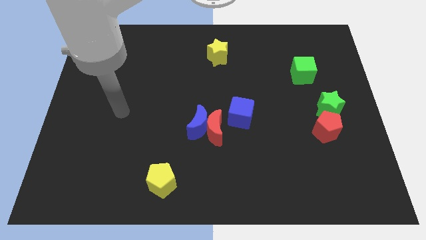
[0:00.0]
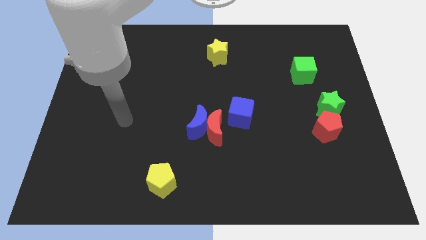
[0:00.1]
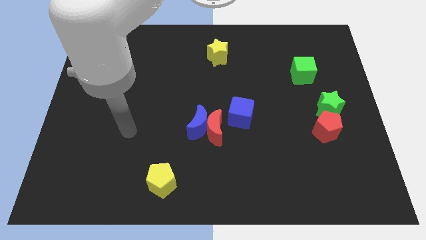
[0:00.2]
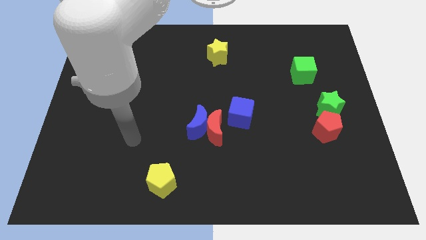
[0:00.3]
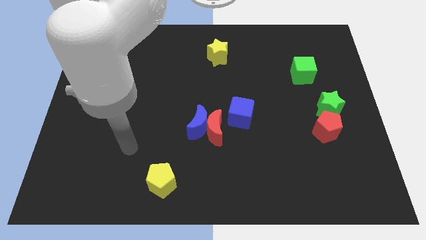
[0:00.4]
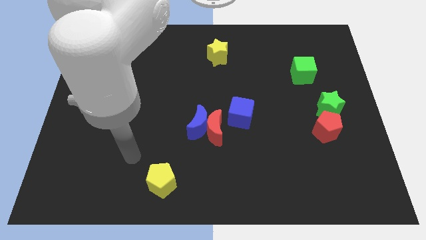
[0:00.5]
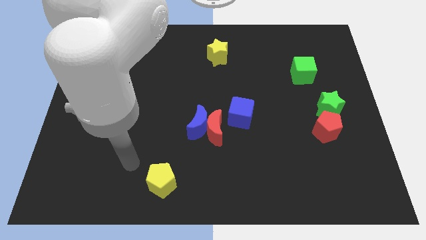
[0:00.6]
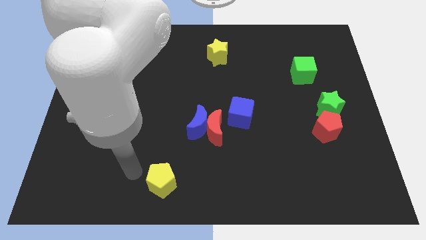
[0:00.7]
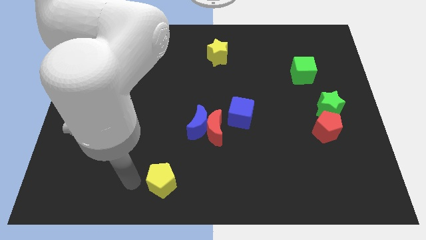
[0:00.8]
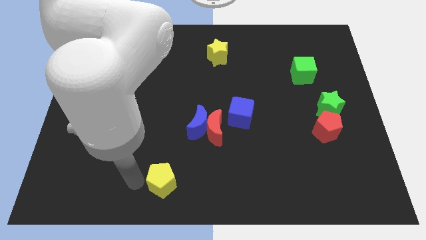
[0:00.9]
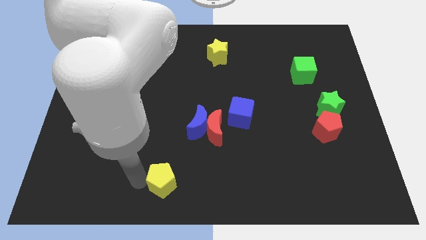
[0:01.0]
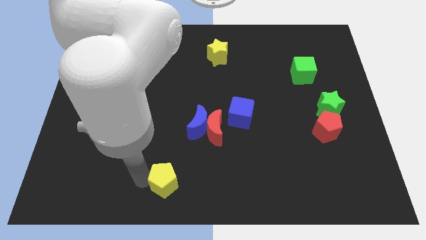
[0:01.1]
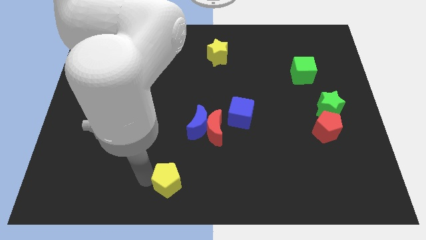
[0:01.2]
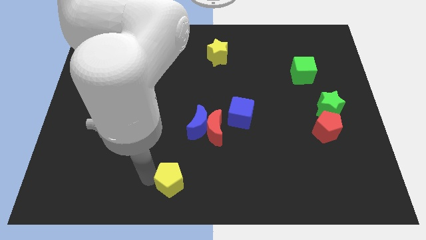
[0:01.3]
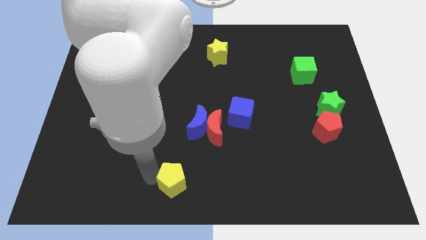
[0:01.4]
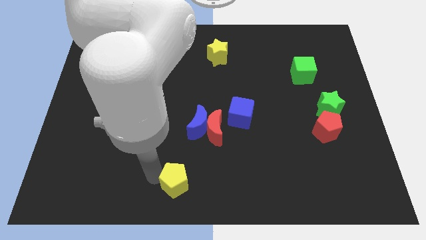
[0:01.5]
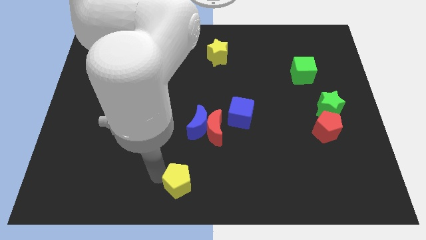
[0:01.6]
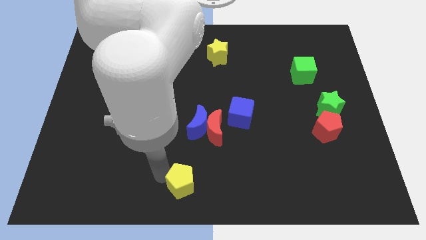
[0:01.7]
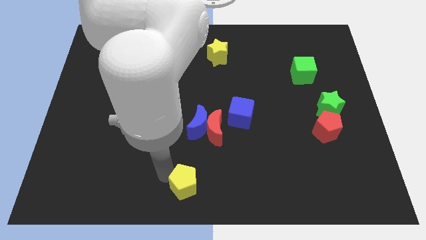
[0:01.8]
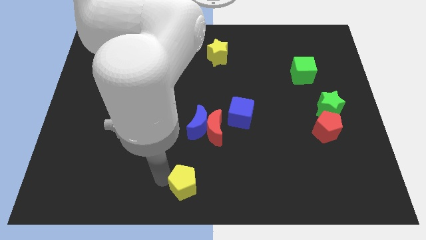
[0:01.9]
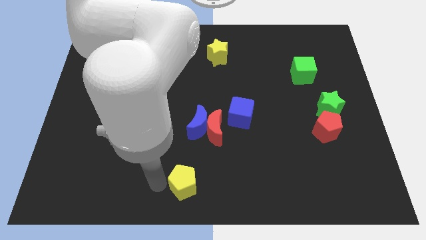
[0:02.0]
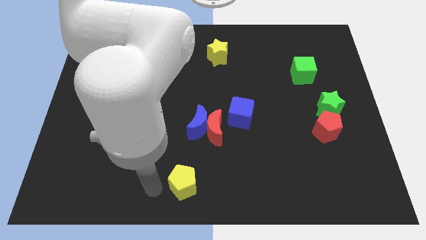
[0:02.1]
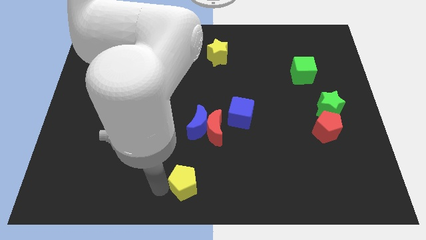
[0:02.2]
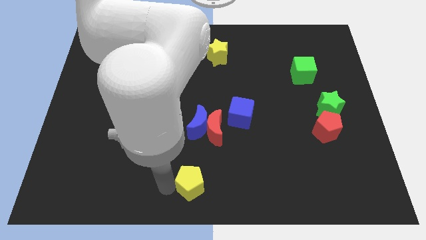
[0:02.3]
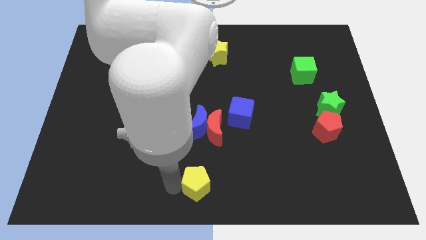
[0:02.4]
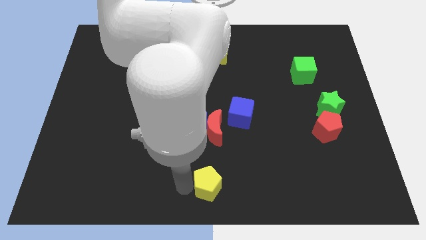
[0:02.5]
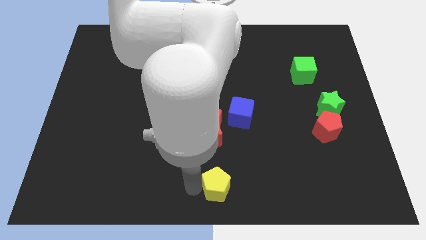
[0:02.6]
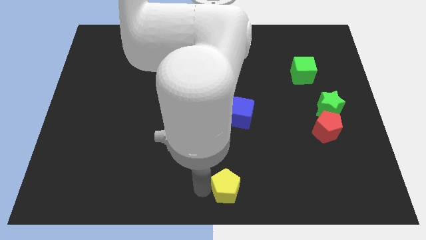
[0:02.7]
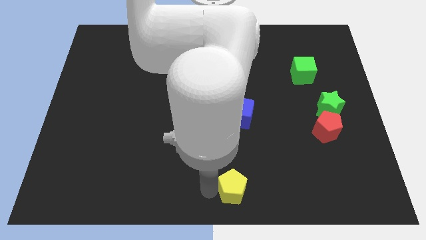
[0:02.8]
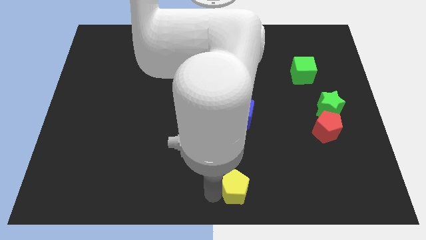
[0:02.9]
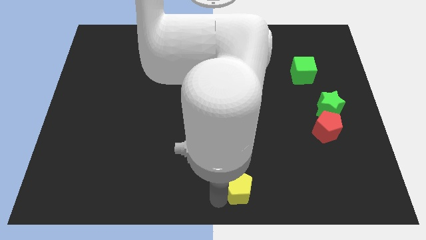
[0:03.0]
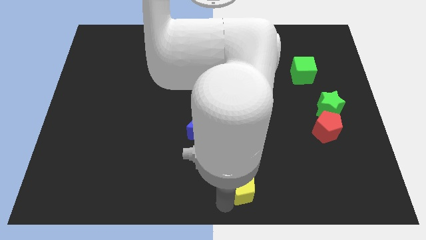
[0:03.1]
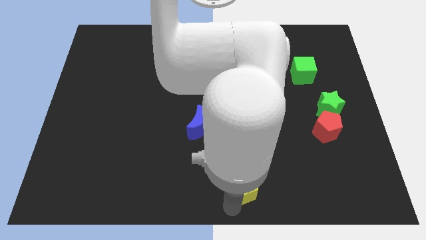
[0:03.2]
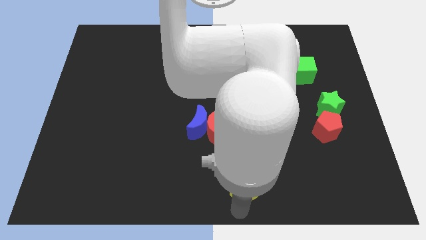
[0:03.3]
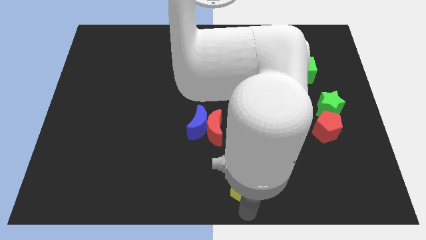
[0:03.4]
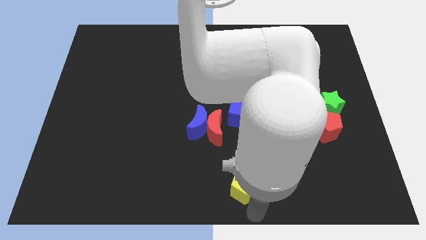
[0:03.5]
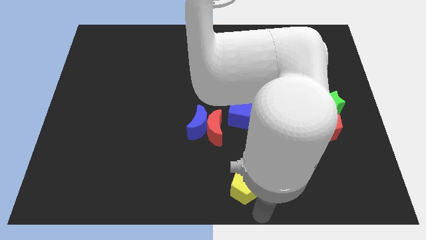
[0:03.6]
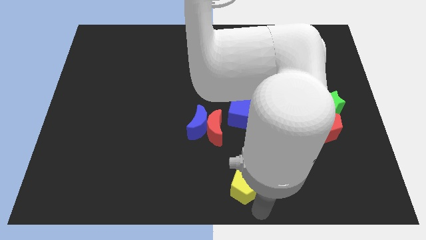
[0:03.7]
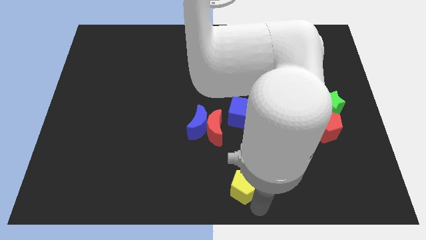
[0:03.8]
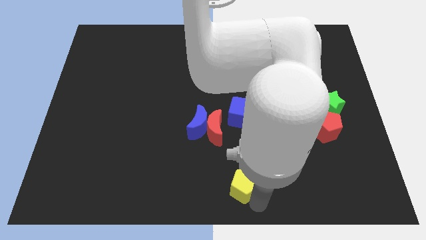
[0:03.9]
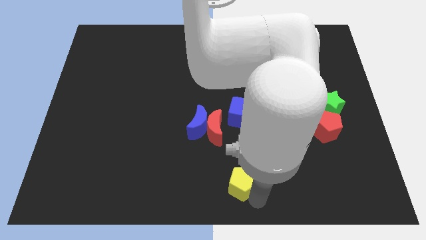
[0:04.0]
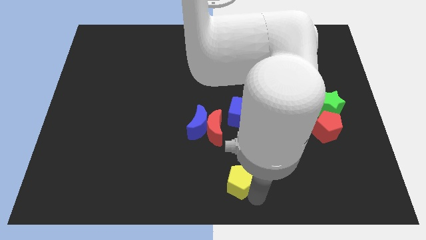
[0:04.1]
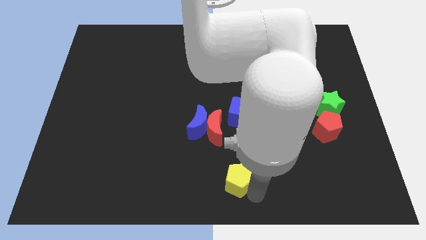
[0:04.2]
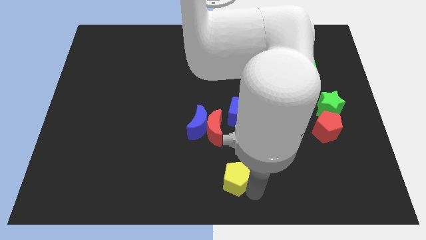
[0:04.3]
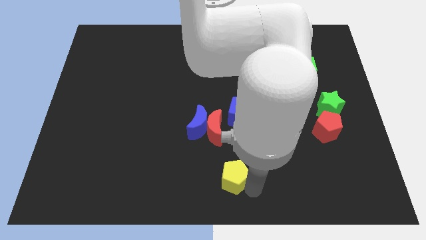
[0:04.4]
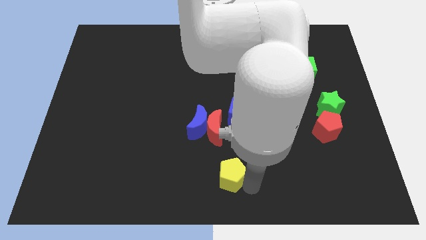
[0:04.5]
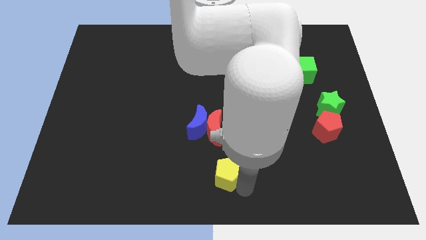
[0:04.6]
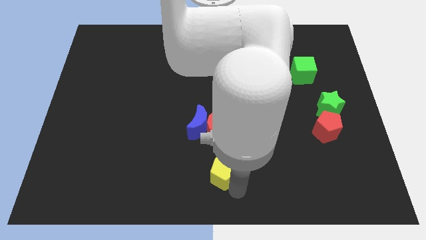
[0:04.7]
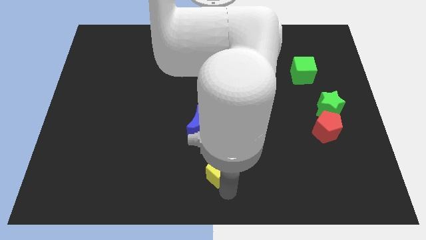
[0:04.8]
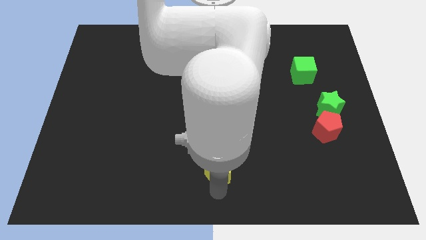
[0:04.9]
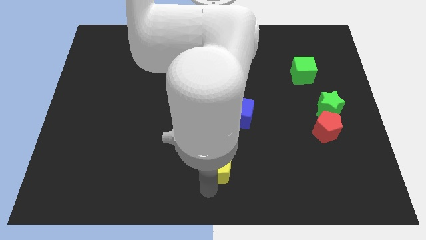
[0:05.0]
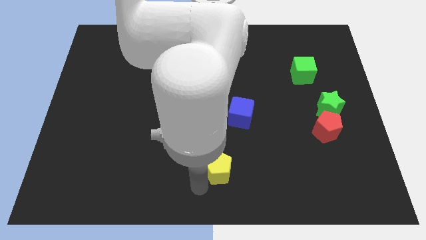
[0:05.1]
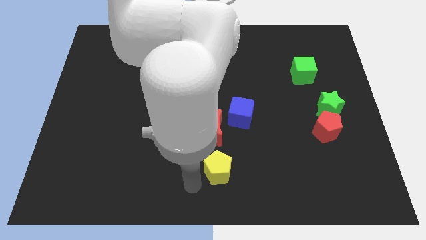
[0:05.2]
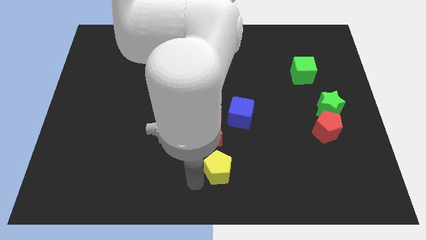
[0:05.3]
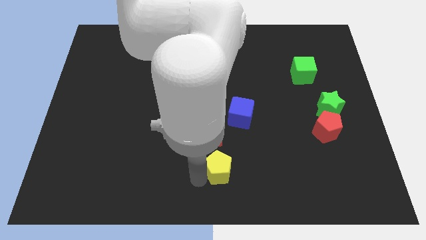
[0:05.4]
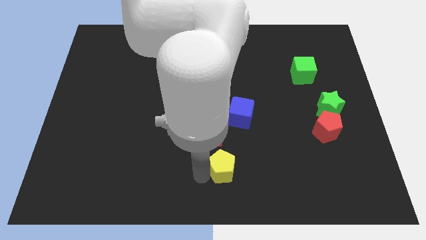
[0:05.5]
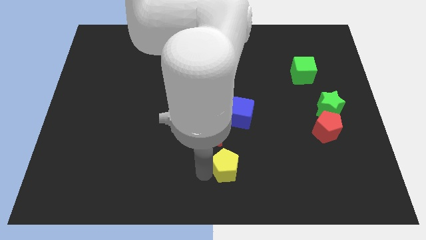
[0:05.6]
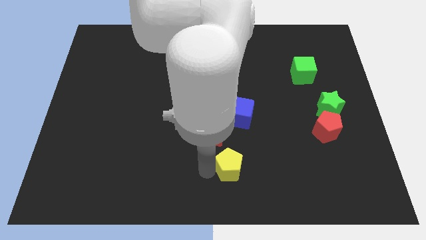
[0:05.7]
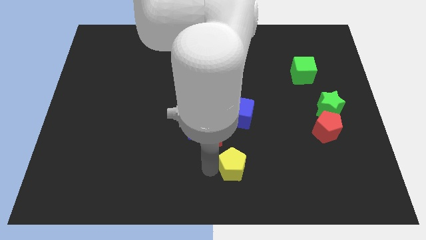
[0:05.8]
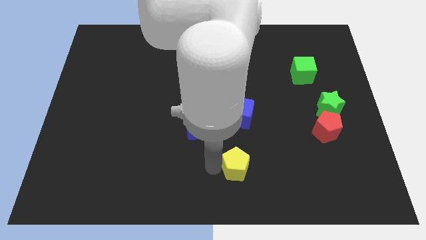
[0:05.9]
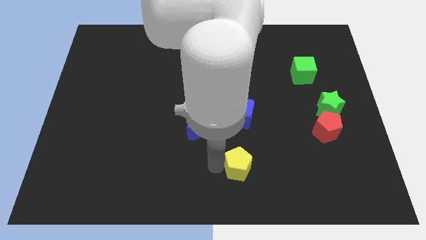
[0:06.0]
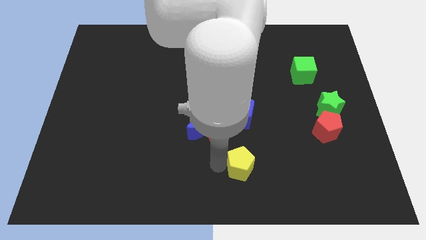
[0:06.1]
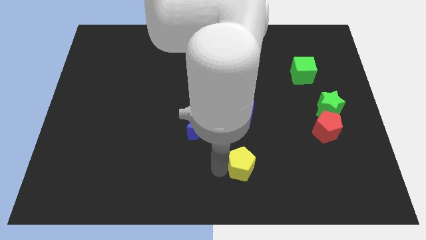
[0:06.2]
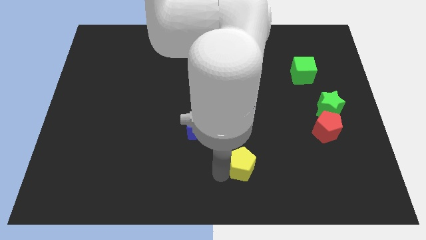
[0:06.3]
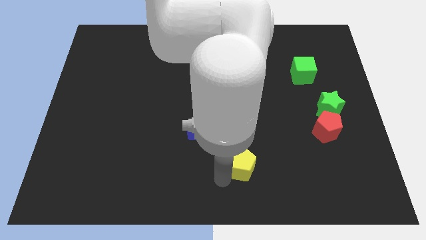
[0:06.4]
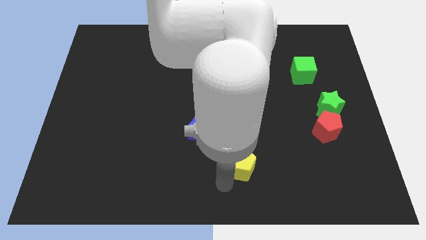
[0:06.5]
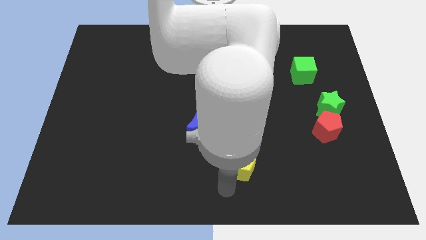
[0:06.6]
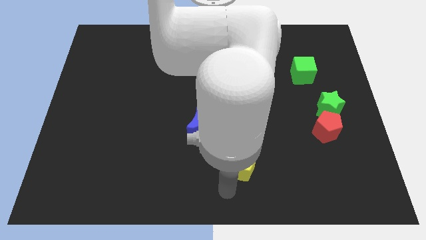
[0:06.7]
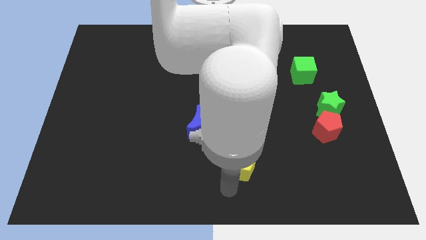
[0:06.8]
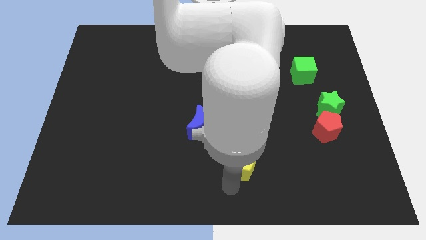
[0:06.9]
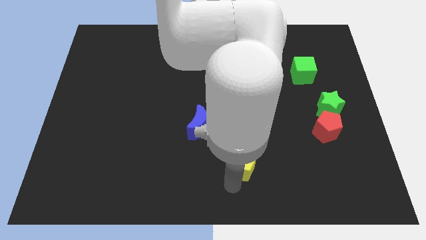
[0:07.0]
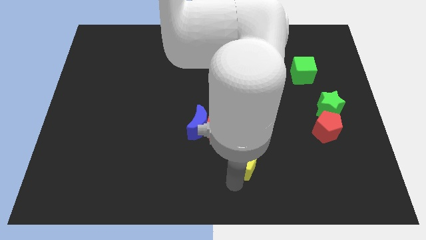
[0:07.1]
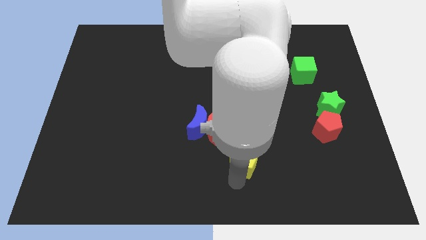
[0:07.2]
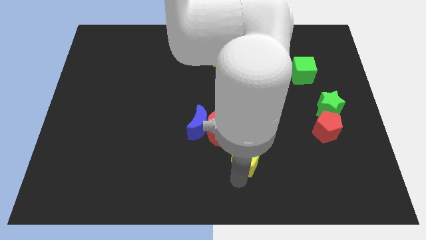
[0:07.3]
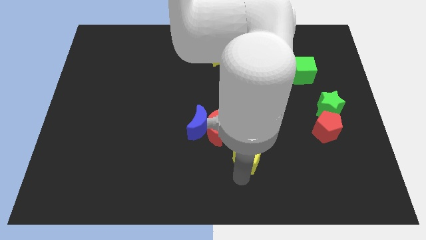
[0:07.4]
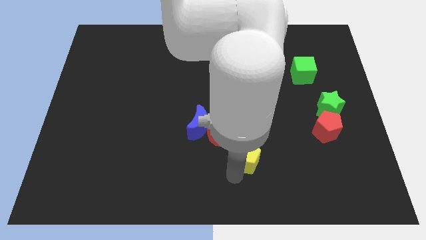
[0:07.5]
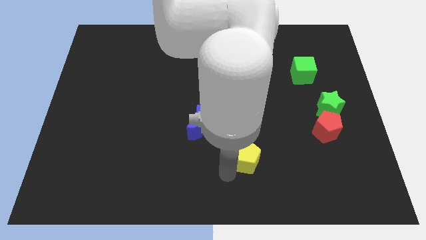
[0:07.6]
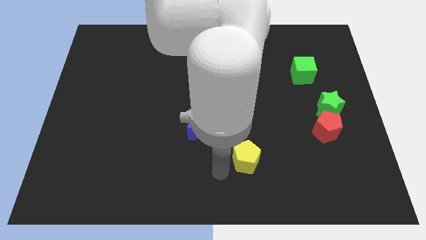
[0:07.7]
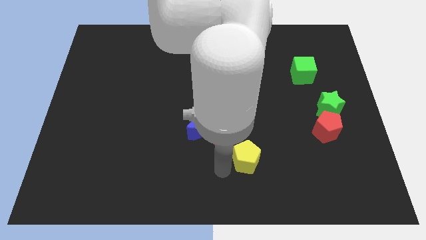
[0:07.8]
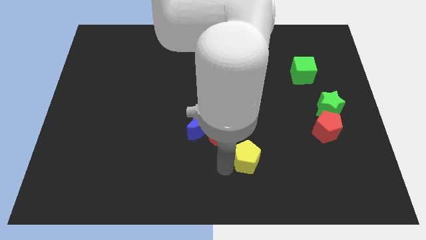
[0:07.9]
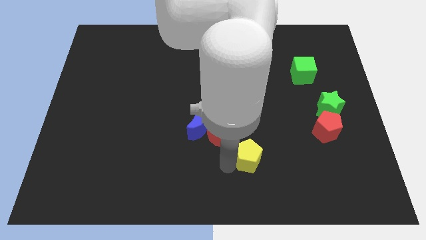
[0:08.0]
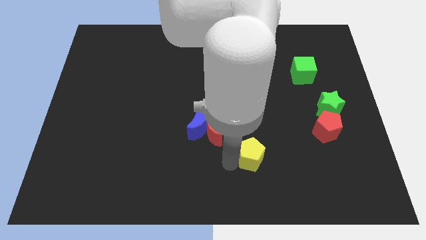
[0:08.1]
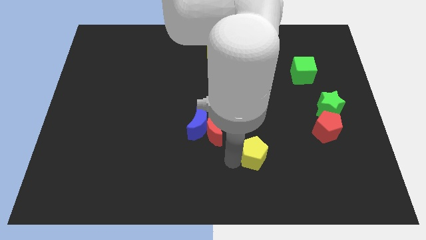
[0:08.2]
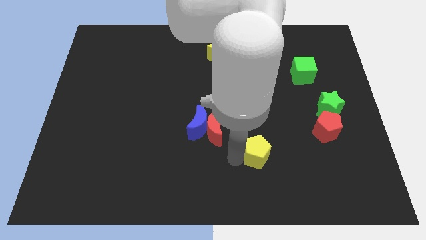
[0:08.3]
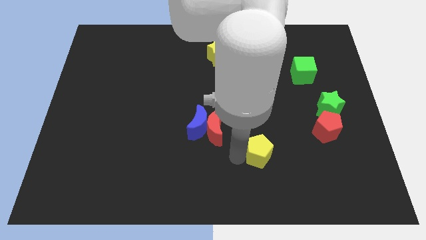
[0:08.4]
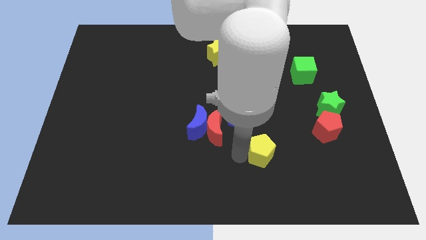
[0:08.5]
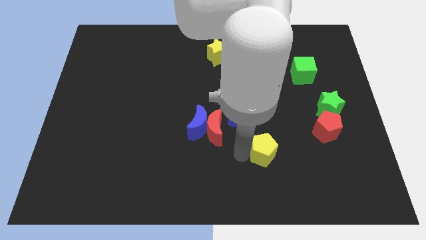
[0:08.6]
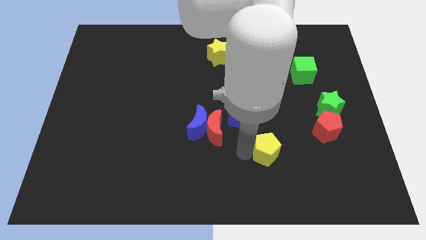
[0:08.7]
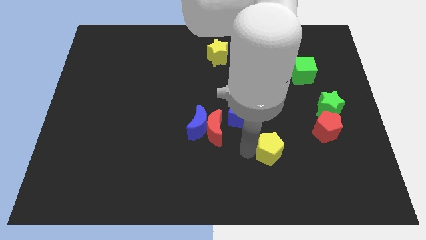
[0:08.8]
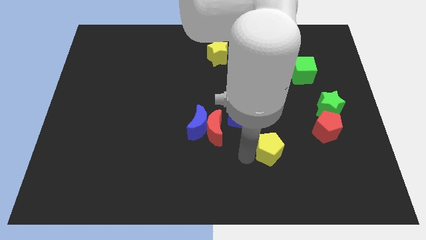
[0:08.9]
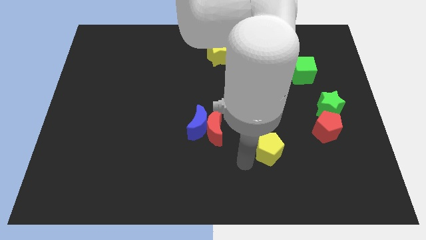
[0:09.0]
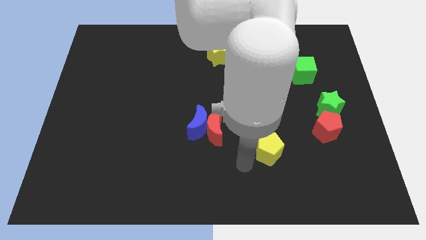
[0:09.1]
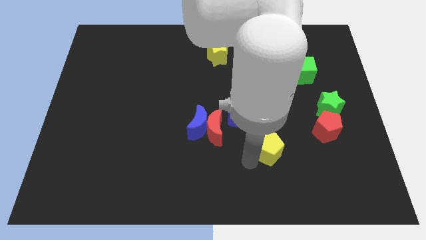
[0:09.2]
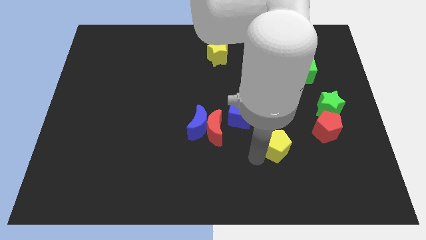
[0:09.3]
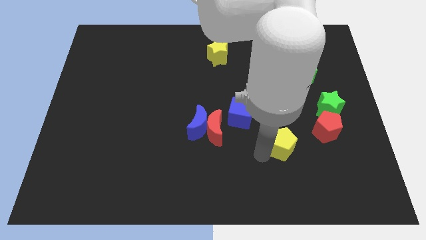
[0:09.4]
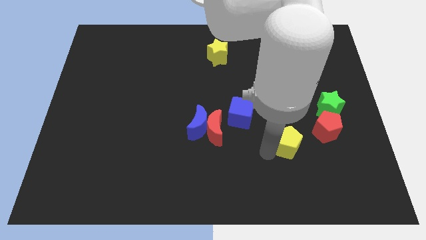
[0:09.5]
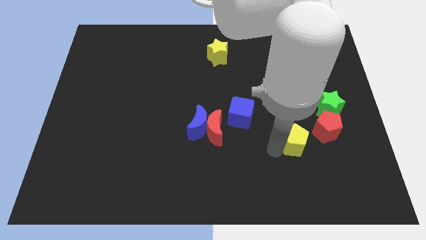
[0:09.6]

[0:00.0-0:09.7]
move the yellow pentagon to the bottom left side of the green star
